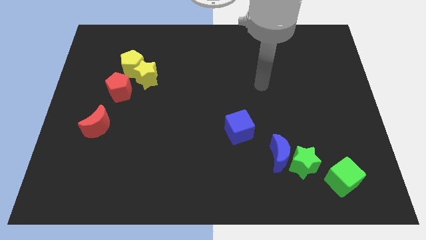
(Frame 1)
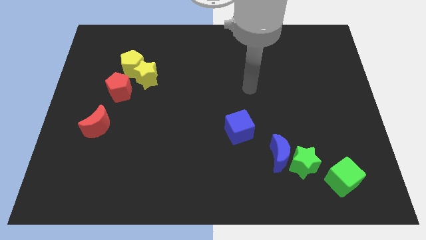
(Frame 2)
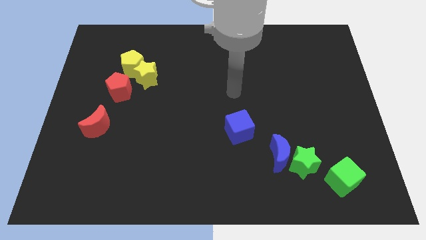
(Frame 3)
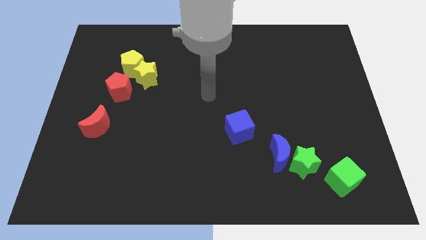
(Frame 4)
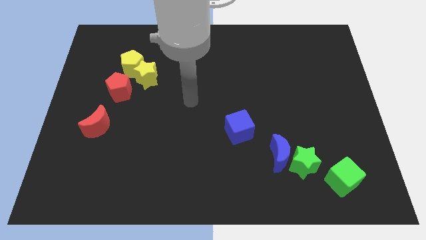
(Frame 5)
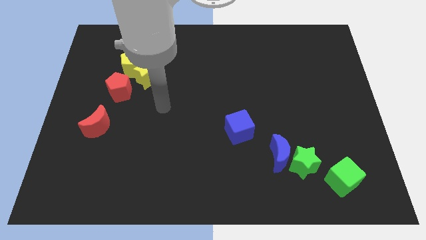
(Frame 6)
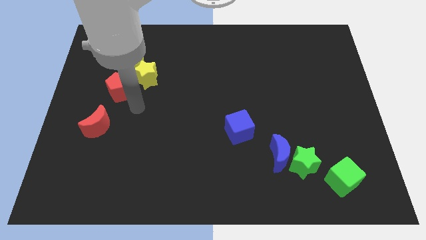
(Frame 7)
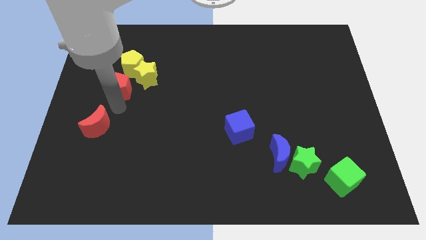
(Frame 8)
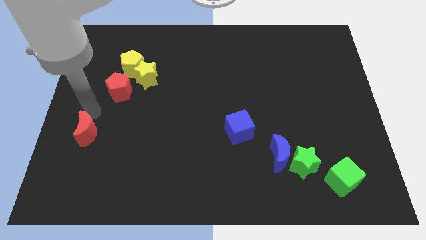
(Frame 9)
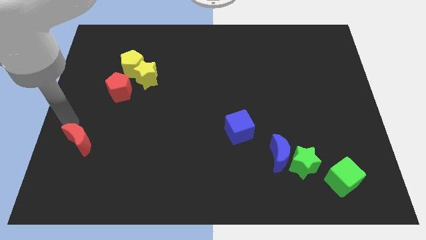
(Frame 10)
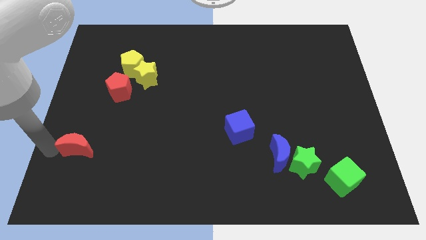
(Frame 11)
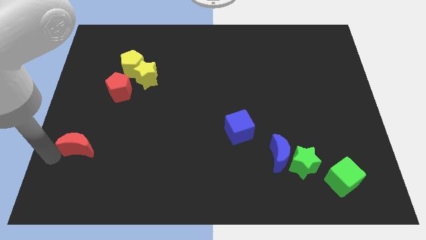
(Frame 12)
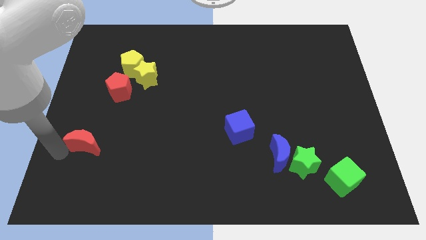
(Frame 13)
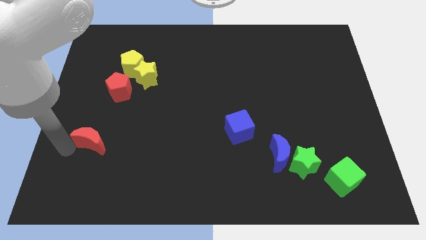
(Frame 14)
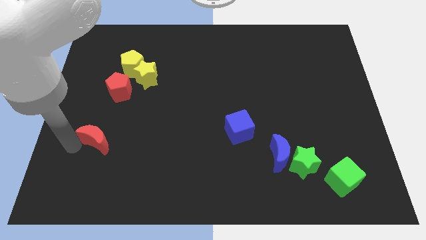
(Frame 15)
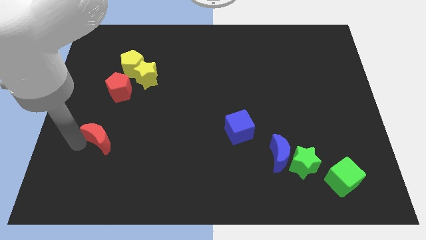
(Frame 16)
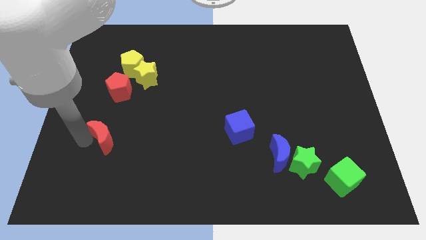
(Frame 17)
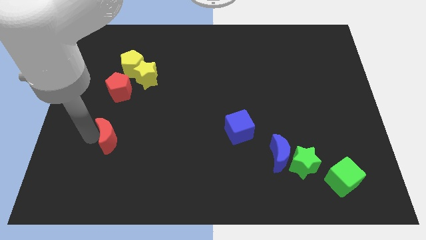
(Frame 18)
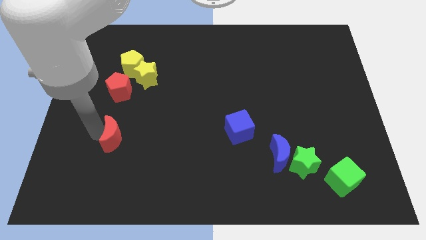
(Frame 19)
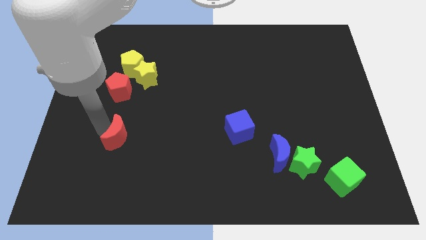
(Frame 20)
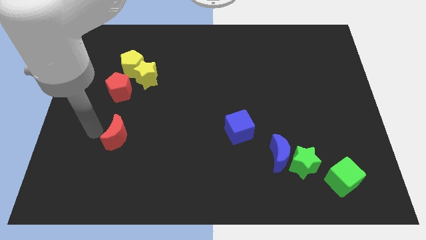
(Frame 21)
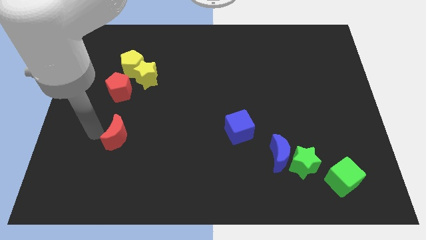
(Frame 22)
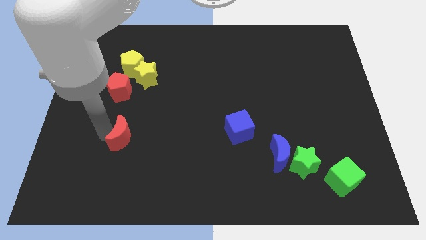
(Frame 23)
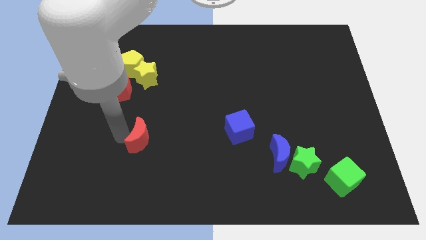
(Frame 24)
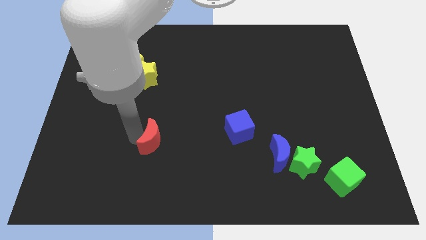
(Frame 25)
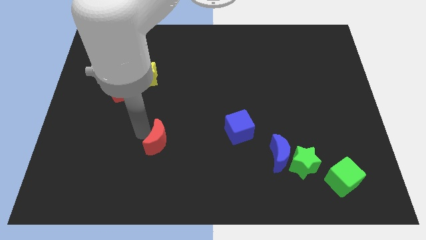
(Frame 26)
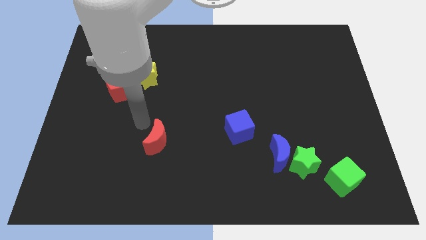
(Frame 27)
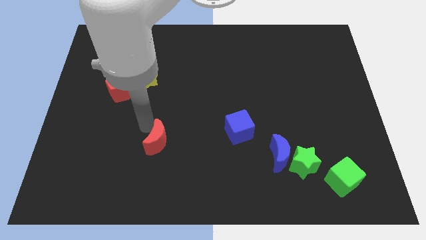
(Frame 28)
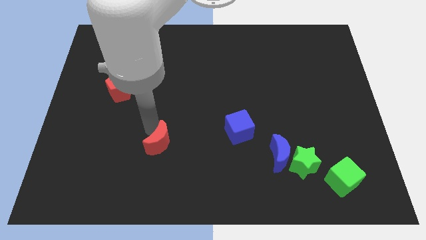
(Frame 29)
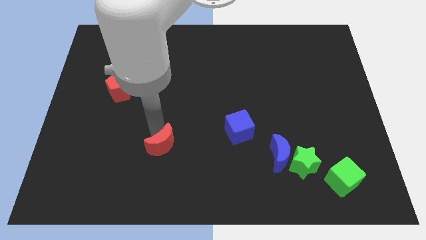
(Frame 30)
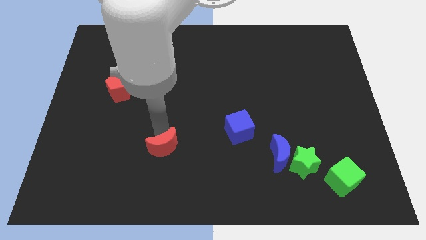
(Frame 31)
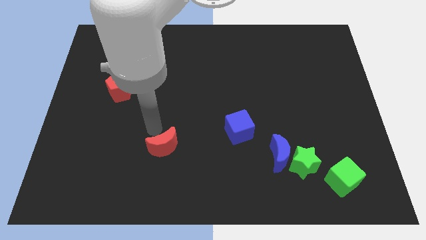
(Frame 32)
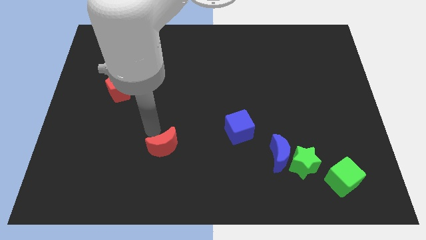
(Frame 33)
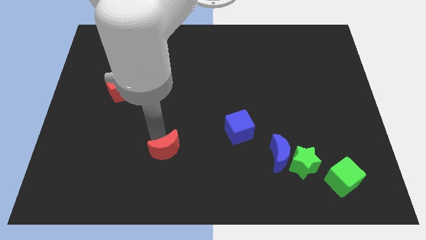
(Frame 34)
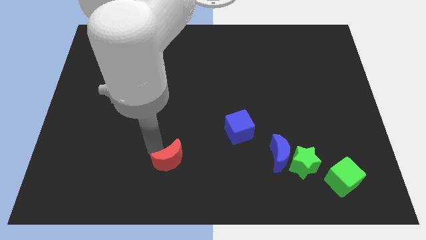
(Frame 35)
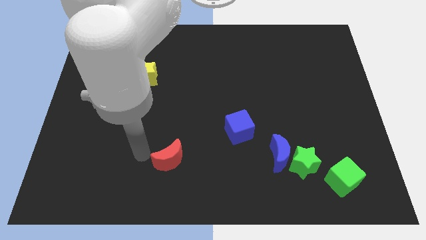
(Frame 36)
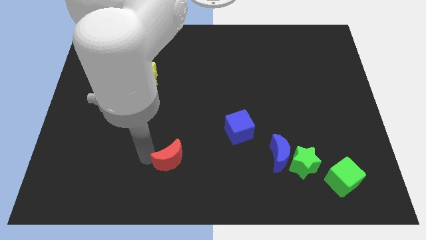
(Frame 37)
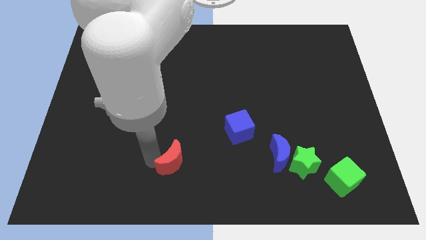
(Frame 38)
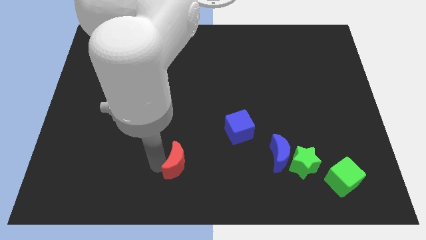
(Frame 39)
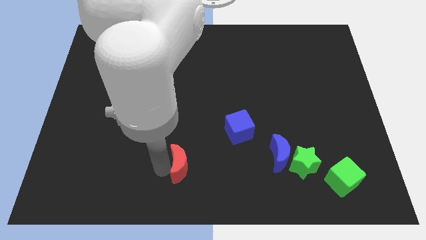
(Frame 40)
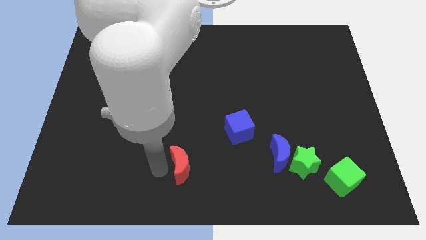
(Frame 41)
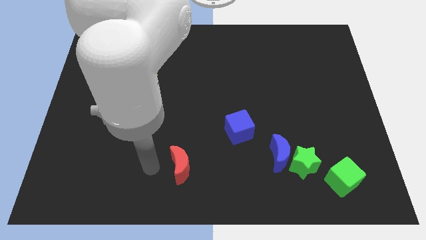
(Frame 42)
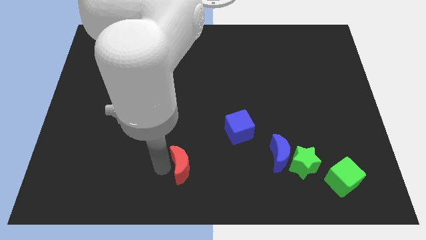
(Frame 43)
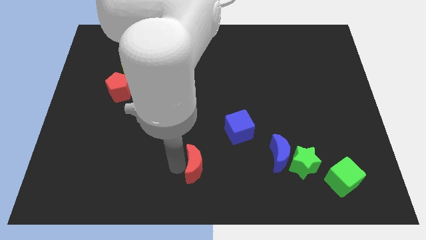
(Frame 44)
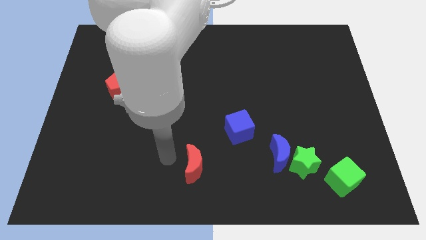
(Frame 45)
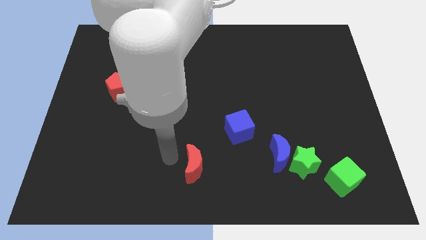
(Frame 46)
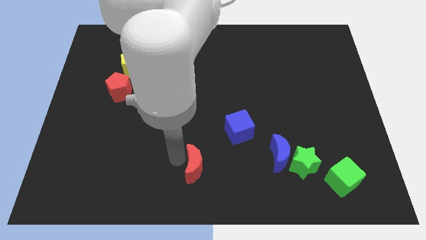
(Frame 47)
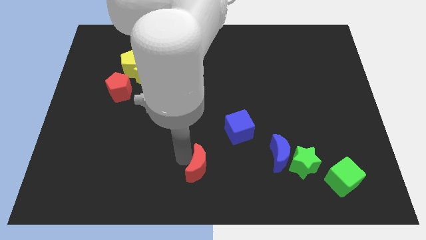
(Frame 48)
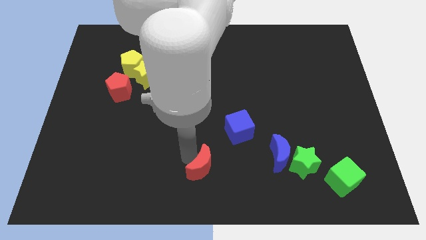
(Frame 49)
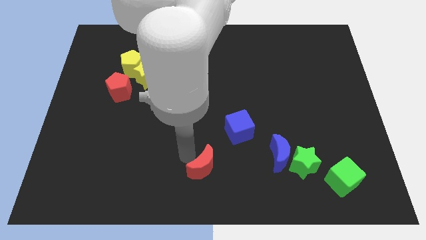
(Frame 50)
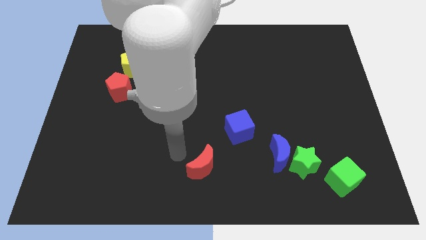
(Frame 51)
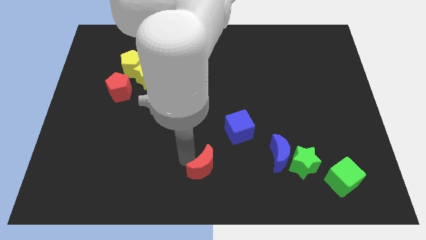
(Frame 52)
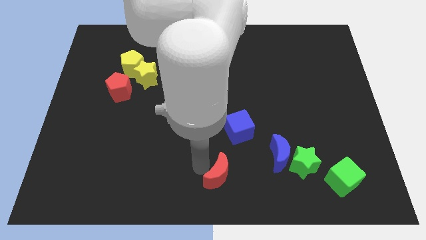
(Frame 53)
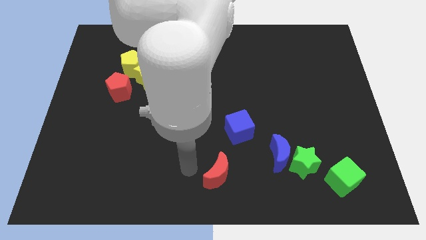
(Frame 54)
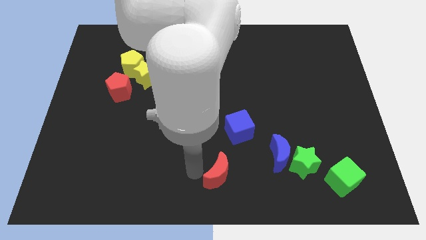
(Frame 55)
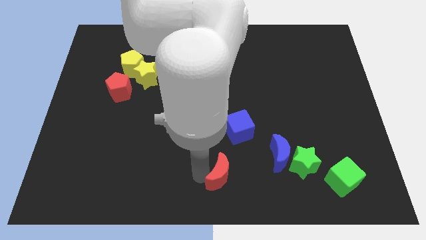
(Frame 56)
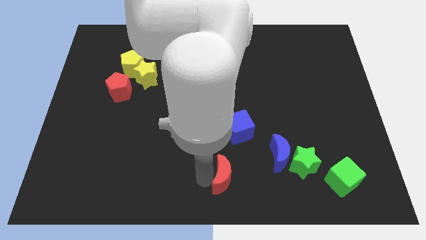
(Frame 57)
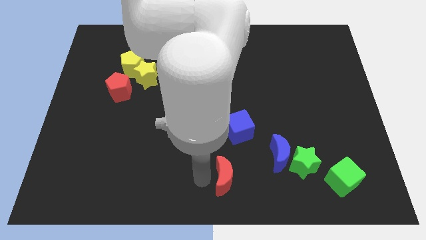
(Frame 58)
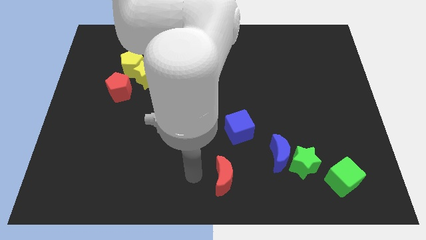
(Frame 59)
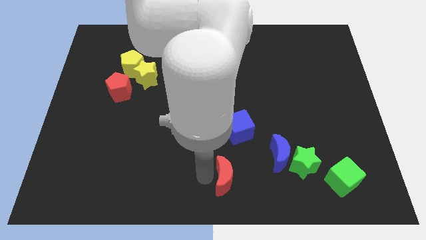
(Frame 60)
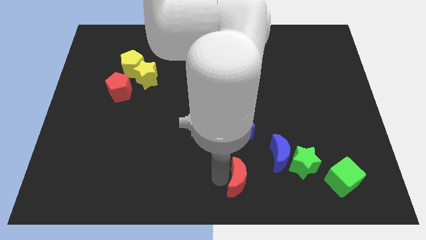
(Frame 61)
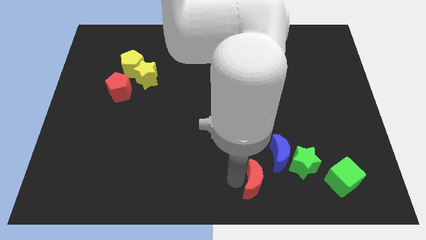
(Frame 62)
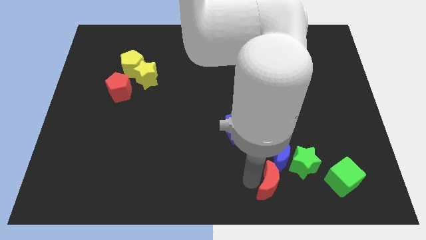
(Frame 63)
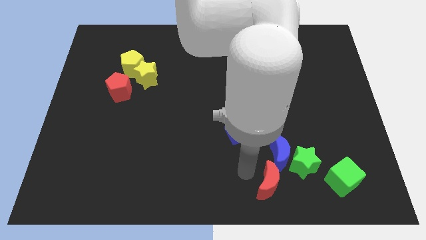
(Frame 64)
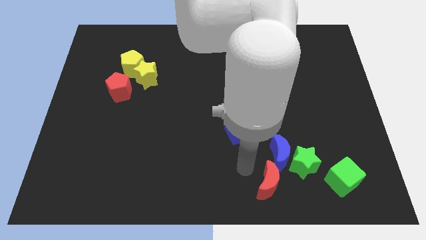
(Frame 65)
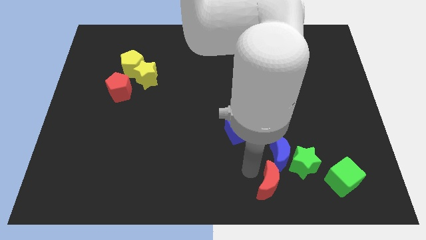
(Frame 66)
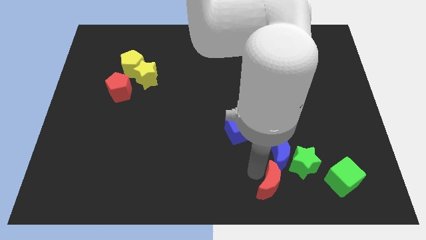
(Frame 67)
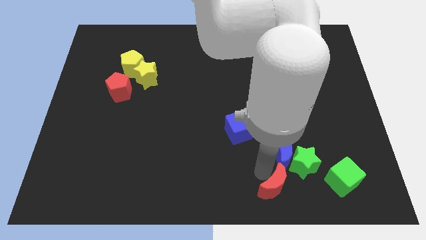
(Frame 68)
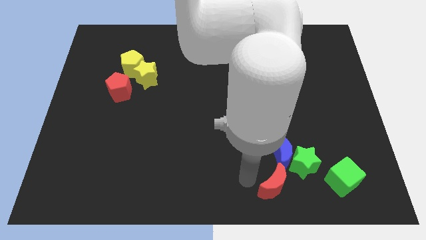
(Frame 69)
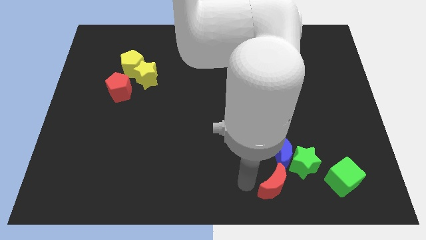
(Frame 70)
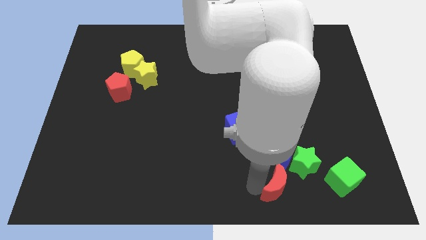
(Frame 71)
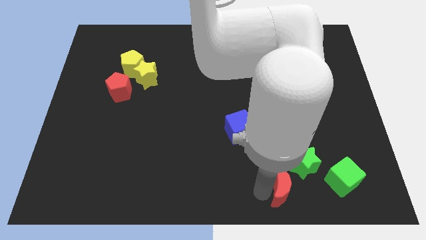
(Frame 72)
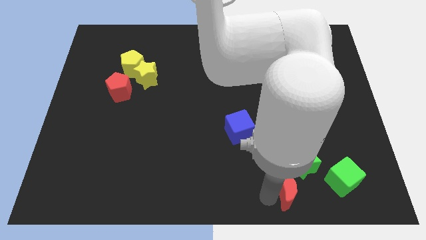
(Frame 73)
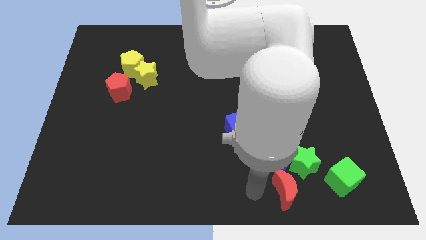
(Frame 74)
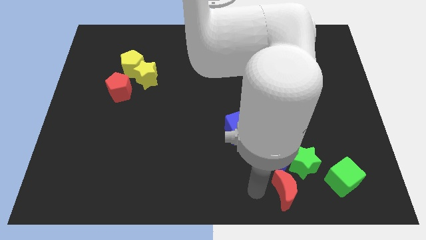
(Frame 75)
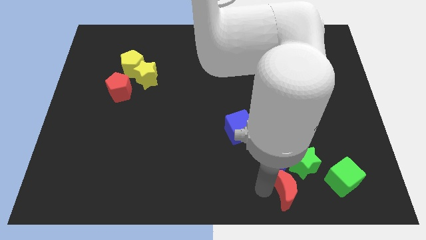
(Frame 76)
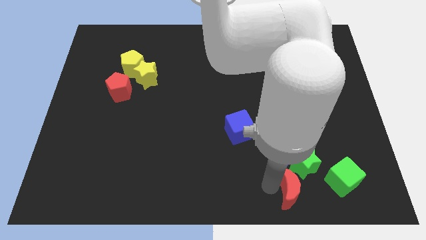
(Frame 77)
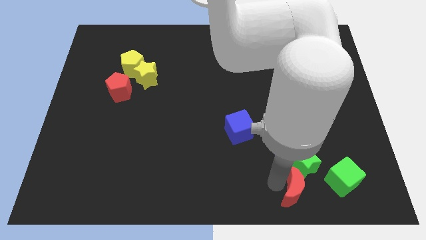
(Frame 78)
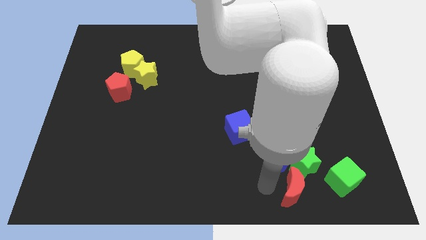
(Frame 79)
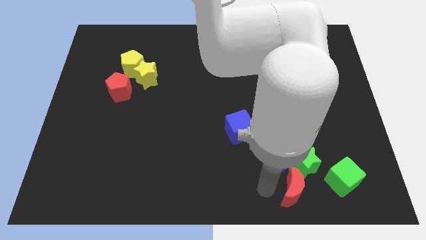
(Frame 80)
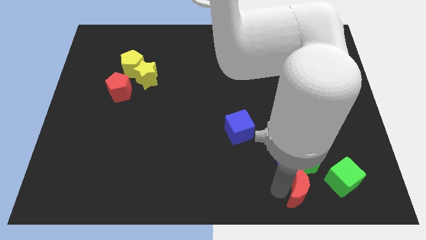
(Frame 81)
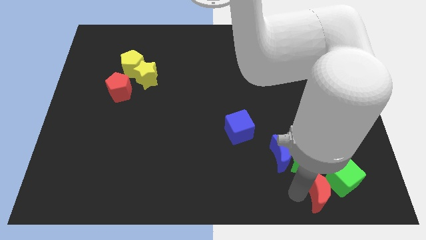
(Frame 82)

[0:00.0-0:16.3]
put the red moon towards the green cube
